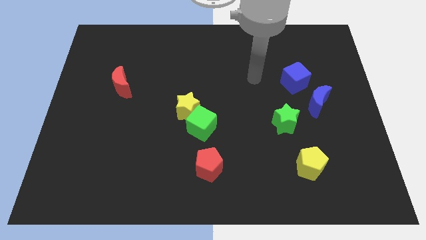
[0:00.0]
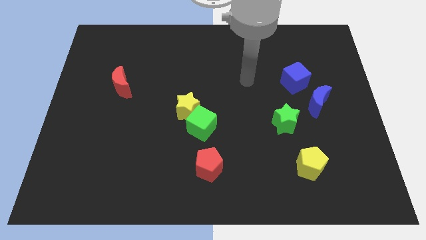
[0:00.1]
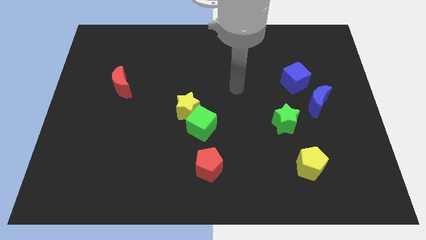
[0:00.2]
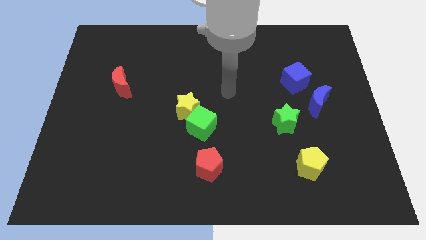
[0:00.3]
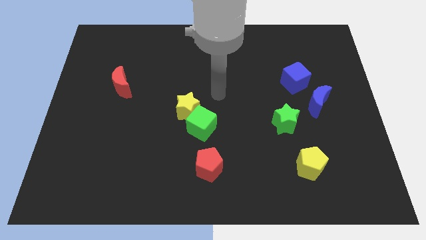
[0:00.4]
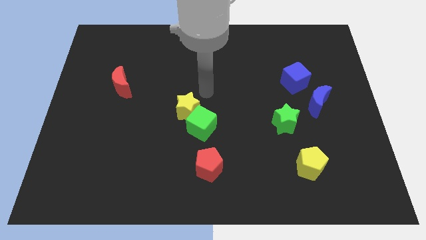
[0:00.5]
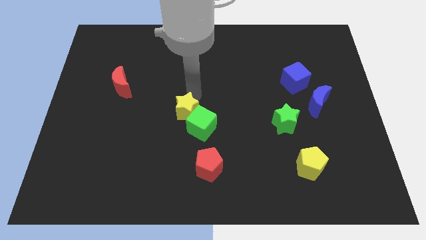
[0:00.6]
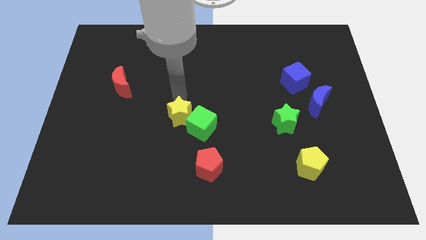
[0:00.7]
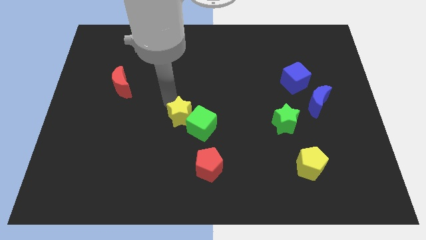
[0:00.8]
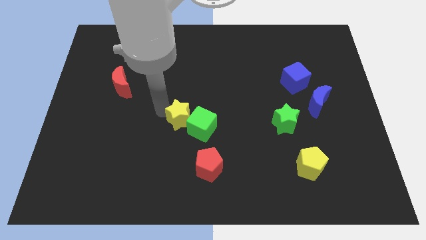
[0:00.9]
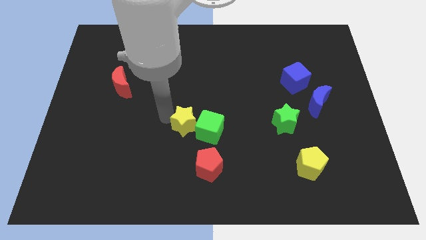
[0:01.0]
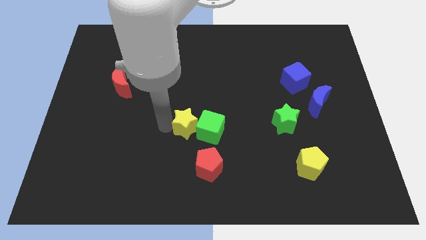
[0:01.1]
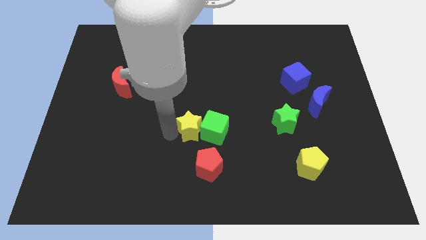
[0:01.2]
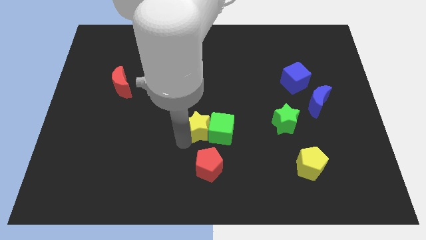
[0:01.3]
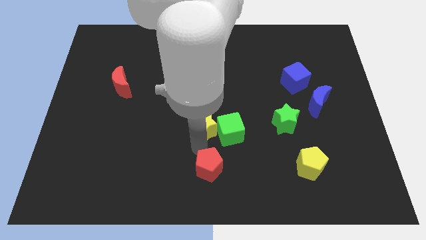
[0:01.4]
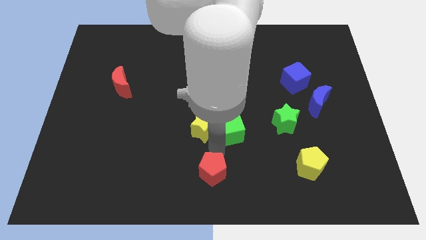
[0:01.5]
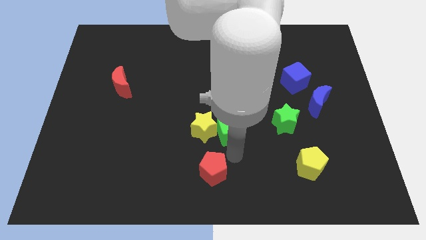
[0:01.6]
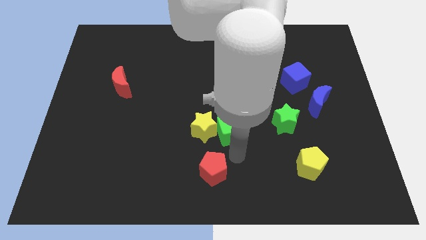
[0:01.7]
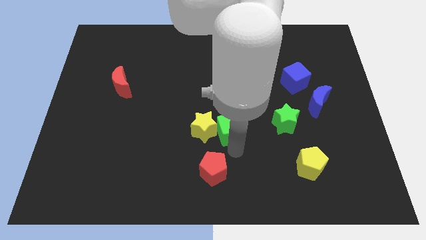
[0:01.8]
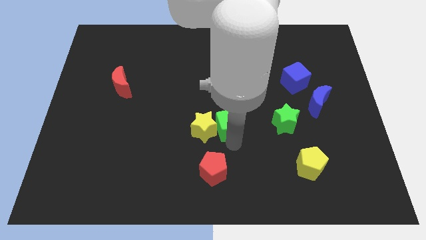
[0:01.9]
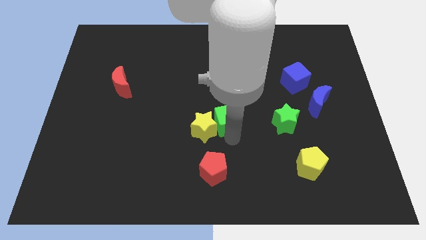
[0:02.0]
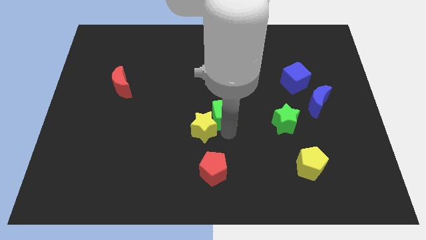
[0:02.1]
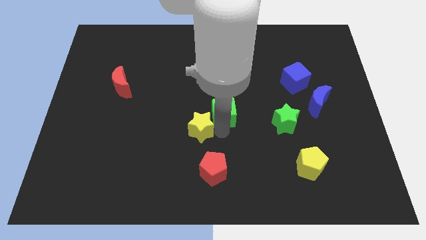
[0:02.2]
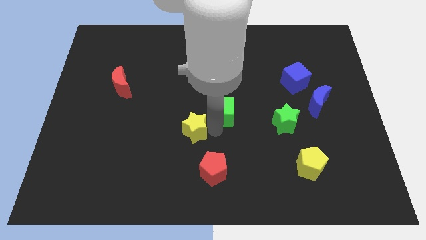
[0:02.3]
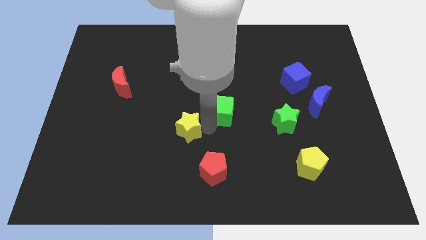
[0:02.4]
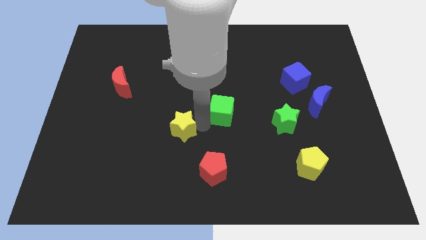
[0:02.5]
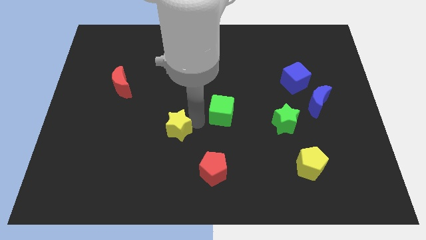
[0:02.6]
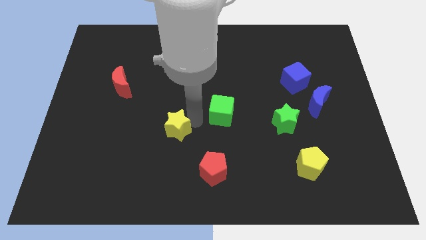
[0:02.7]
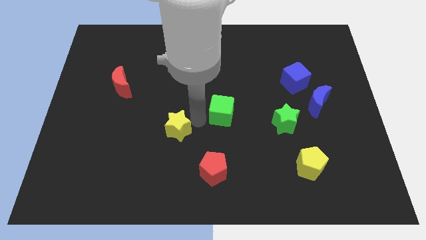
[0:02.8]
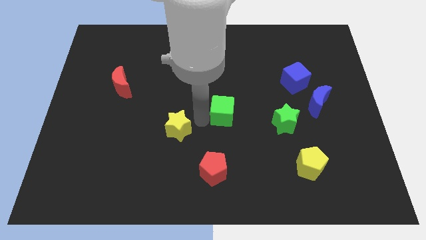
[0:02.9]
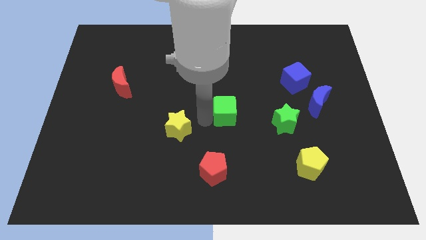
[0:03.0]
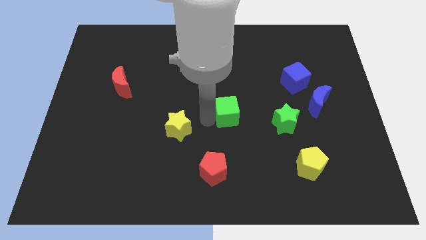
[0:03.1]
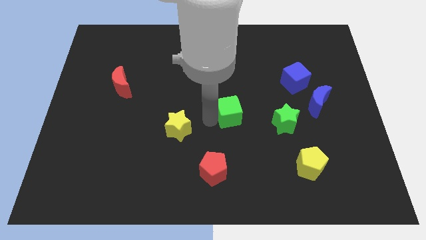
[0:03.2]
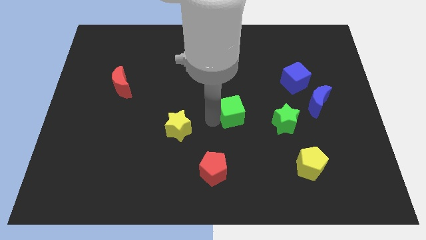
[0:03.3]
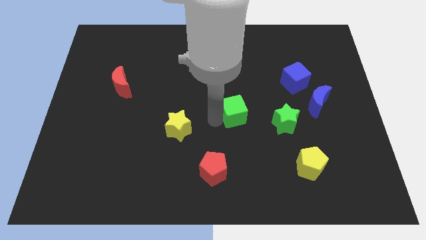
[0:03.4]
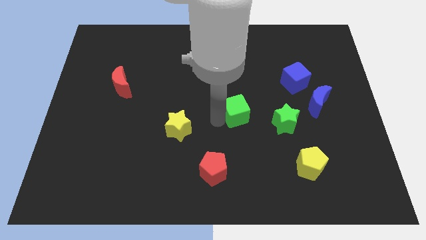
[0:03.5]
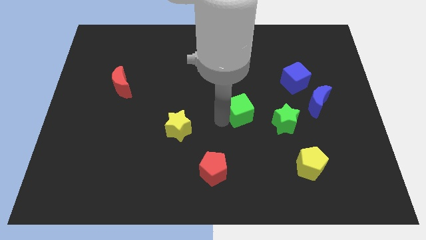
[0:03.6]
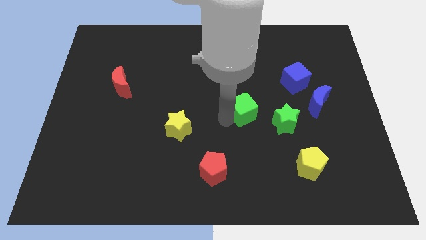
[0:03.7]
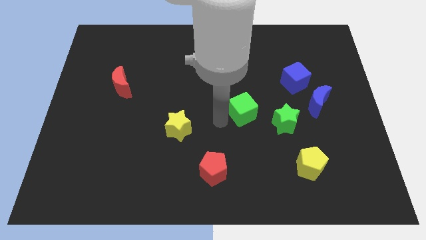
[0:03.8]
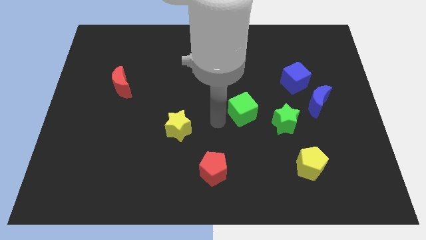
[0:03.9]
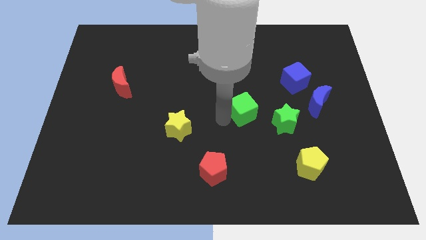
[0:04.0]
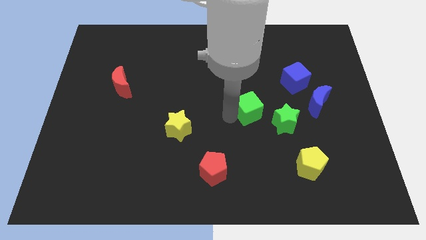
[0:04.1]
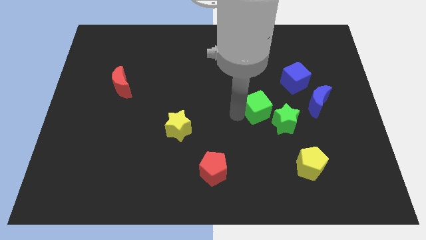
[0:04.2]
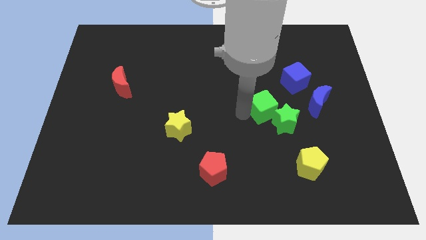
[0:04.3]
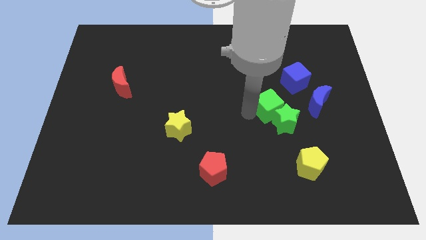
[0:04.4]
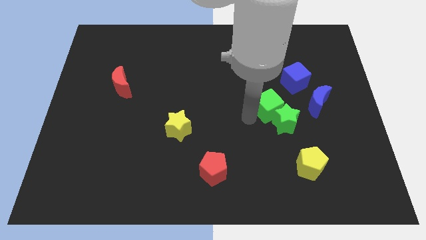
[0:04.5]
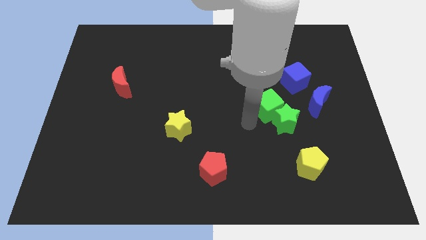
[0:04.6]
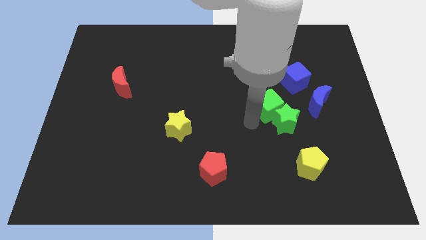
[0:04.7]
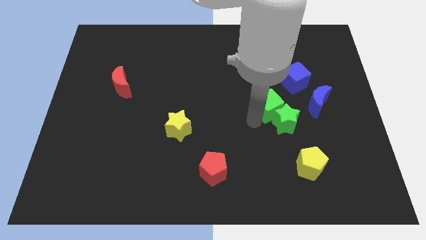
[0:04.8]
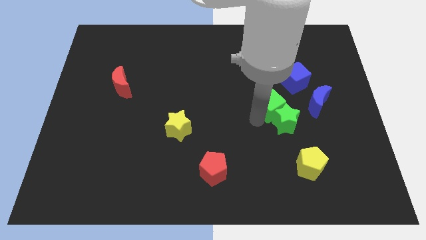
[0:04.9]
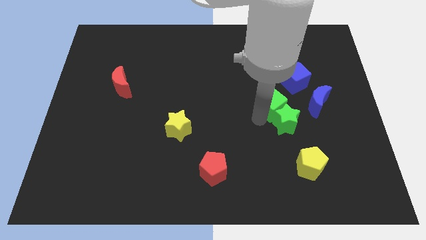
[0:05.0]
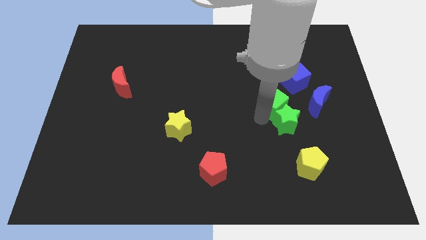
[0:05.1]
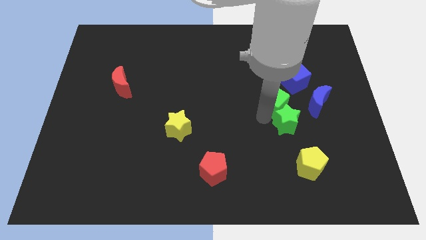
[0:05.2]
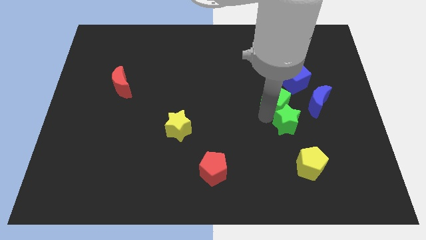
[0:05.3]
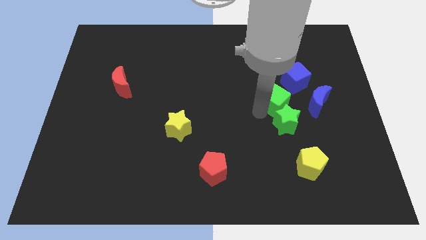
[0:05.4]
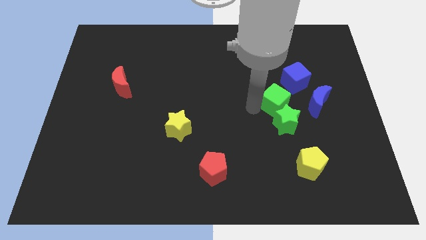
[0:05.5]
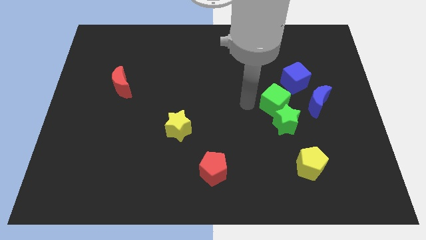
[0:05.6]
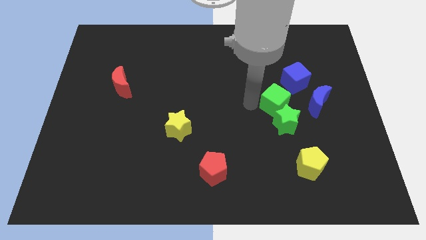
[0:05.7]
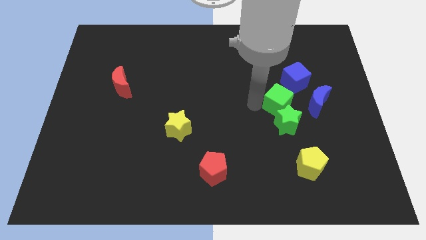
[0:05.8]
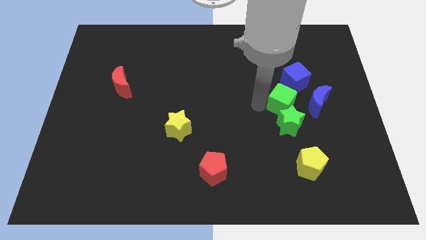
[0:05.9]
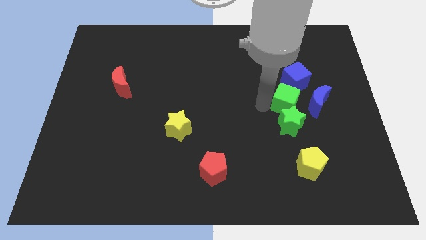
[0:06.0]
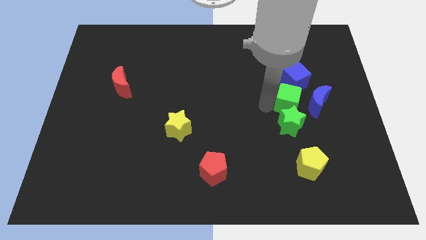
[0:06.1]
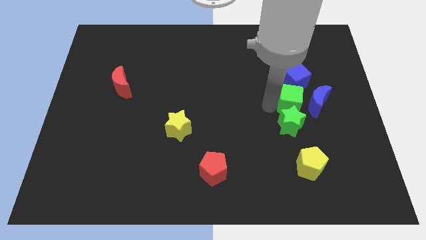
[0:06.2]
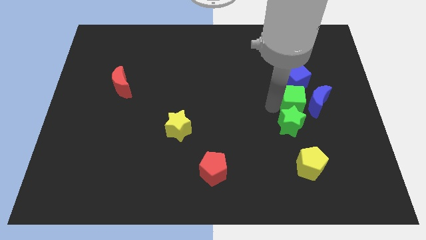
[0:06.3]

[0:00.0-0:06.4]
slide the green cube to the blue moon
